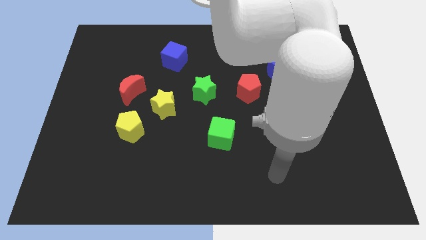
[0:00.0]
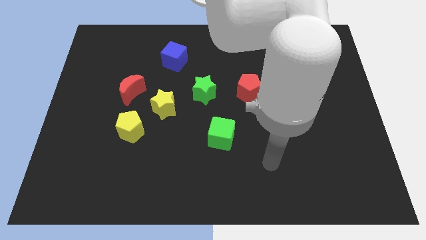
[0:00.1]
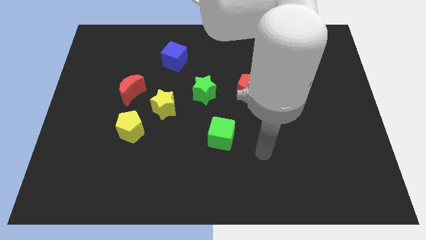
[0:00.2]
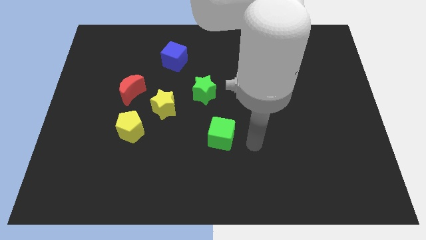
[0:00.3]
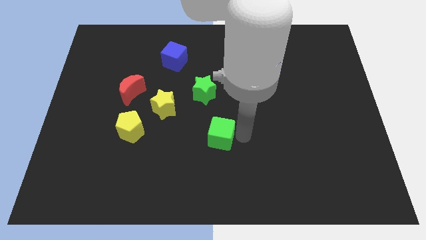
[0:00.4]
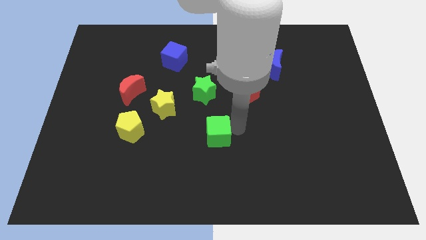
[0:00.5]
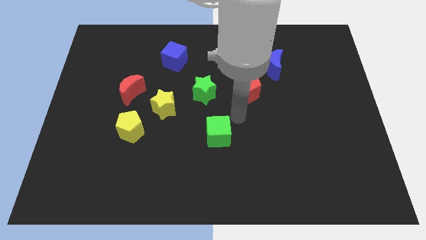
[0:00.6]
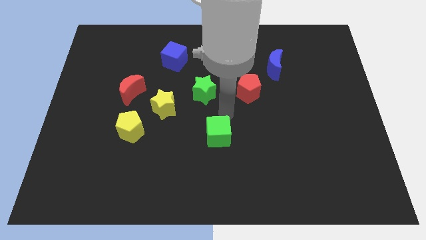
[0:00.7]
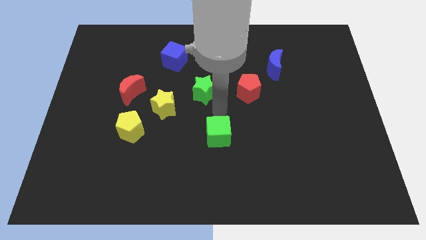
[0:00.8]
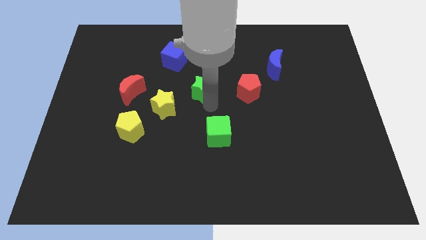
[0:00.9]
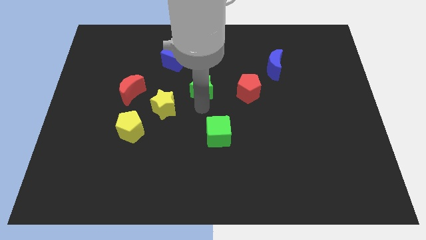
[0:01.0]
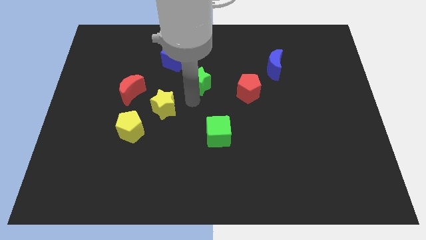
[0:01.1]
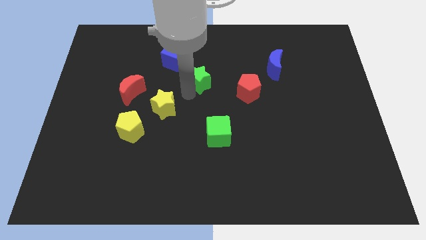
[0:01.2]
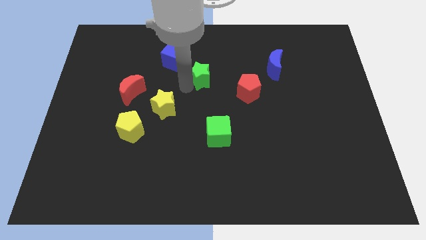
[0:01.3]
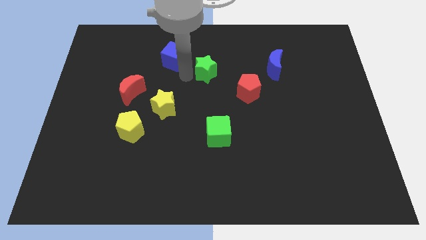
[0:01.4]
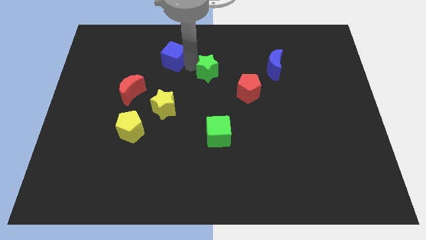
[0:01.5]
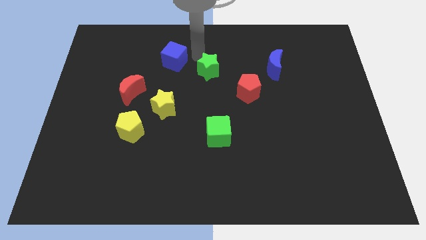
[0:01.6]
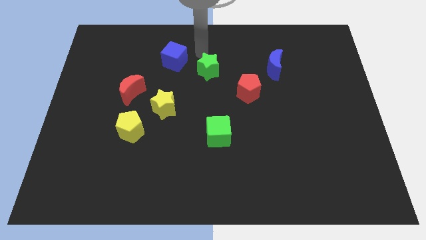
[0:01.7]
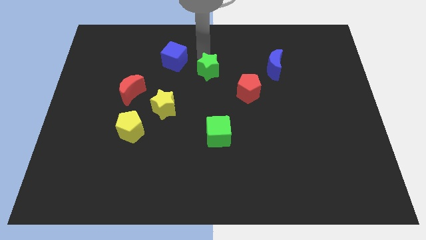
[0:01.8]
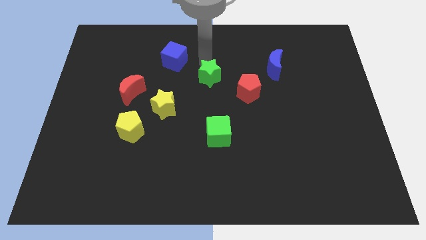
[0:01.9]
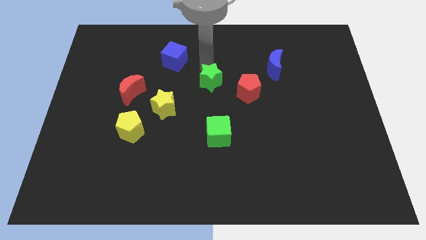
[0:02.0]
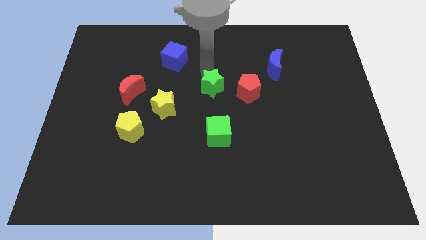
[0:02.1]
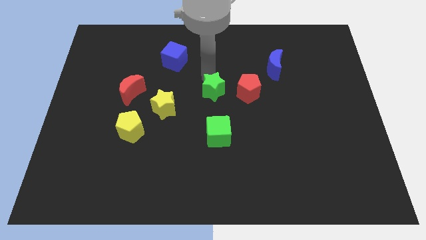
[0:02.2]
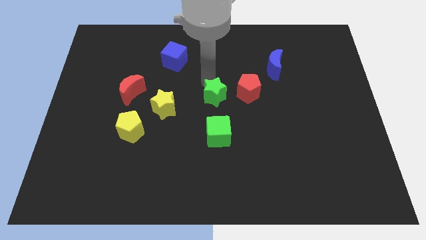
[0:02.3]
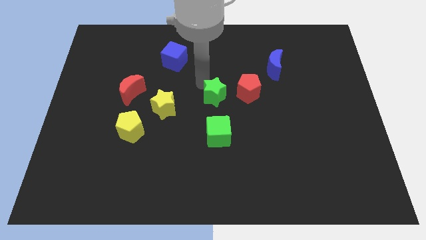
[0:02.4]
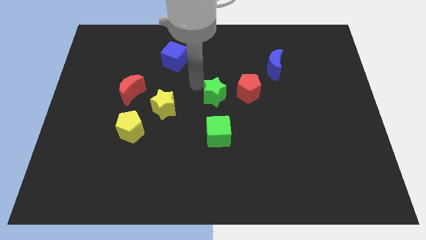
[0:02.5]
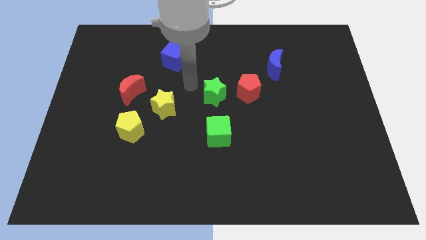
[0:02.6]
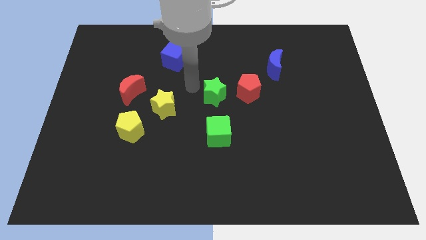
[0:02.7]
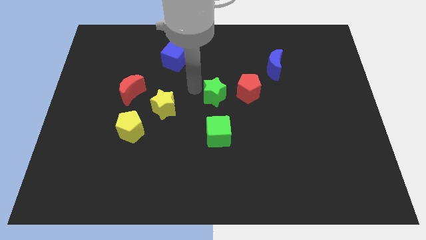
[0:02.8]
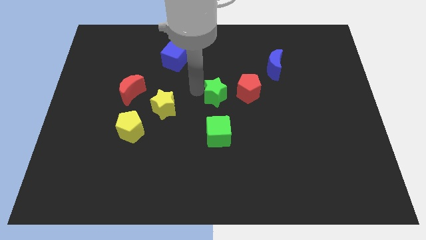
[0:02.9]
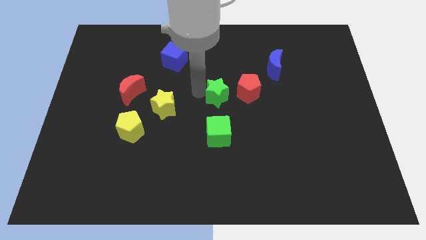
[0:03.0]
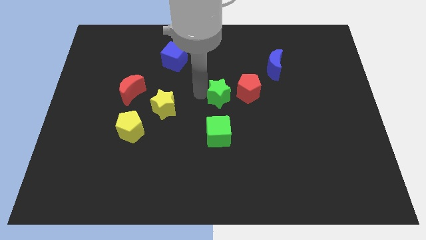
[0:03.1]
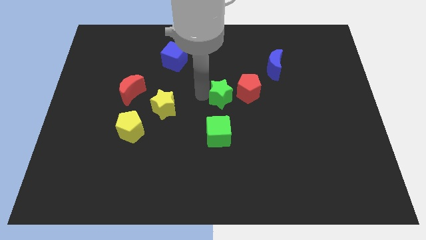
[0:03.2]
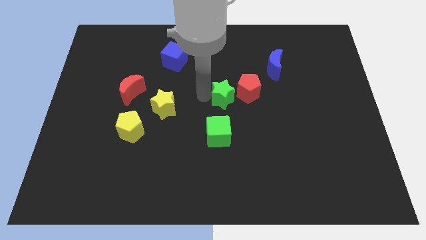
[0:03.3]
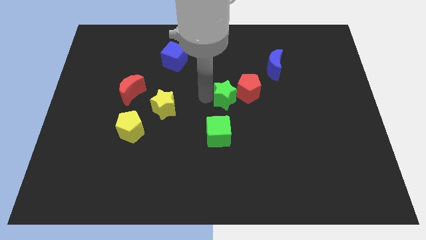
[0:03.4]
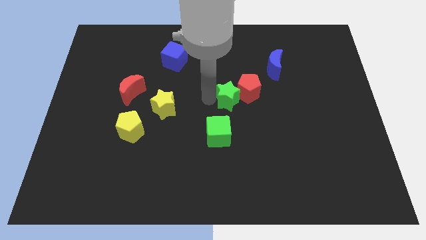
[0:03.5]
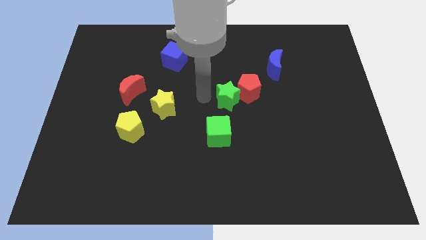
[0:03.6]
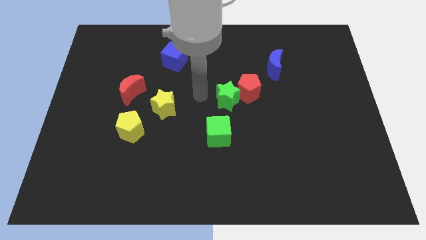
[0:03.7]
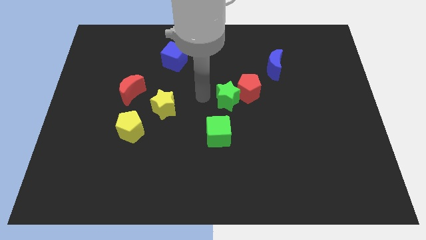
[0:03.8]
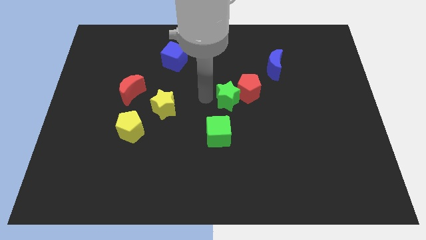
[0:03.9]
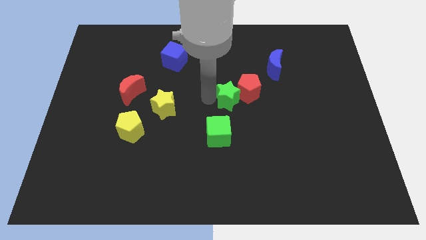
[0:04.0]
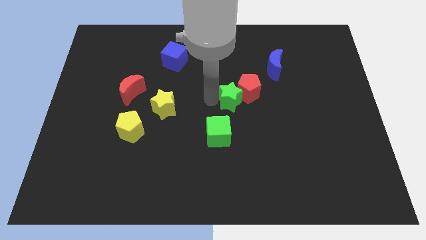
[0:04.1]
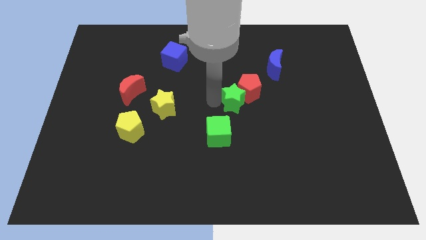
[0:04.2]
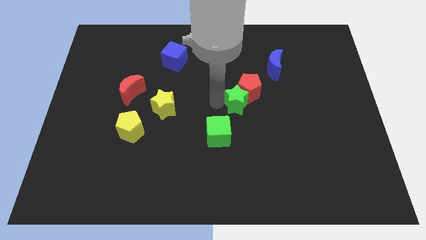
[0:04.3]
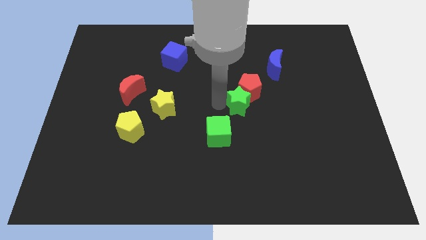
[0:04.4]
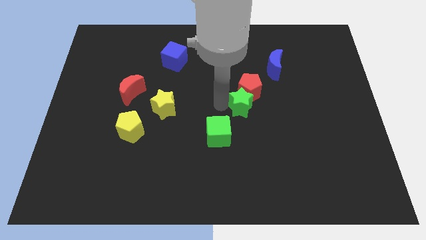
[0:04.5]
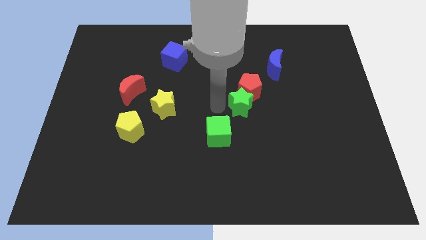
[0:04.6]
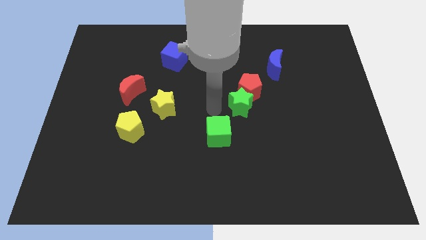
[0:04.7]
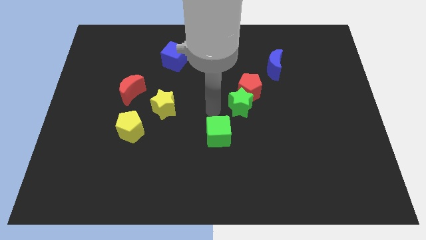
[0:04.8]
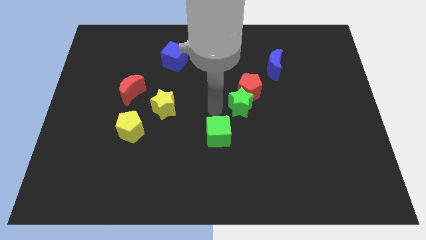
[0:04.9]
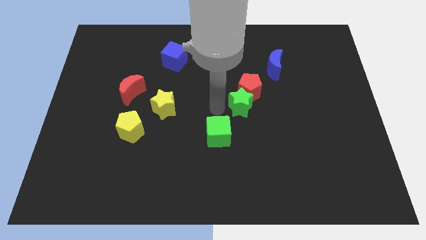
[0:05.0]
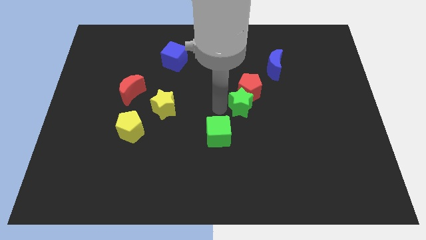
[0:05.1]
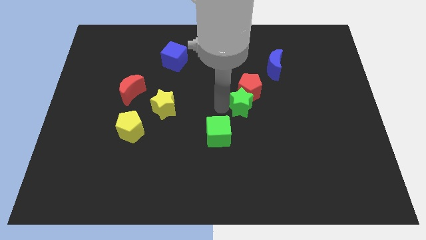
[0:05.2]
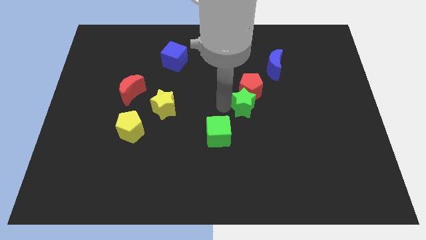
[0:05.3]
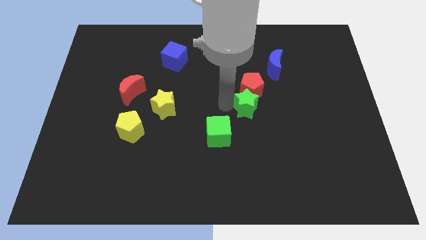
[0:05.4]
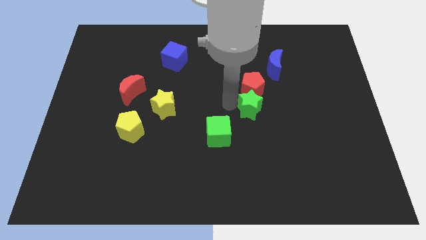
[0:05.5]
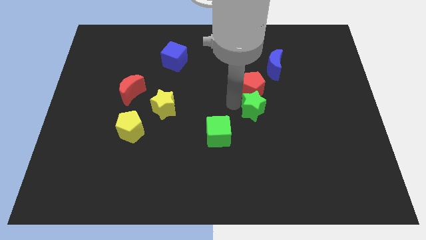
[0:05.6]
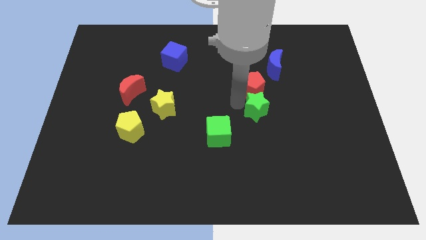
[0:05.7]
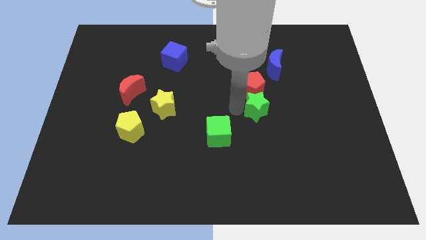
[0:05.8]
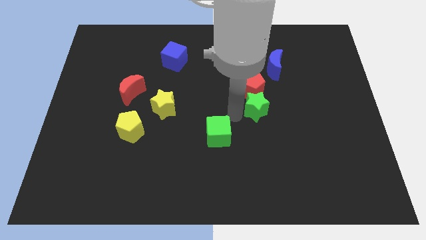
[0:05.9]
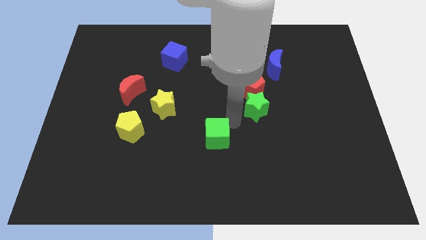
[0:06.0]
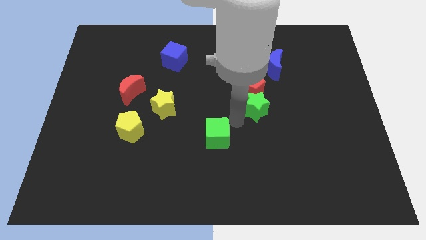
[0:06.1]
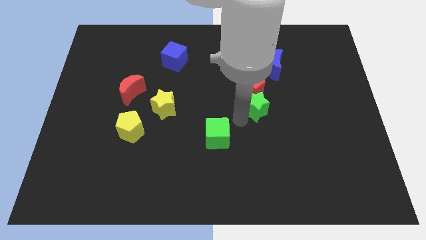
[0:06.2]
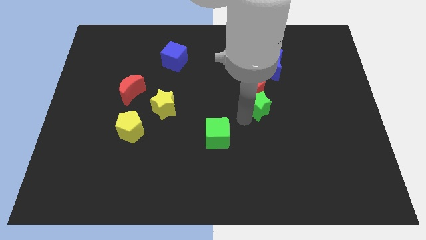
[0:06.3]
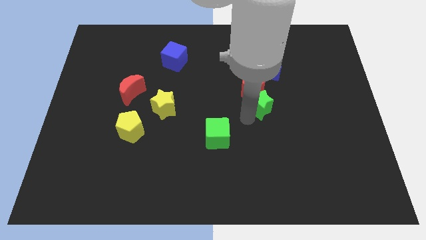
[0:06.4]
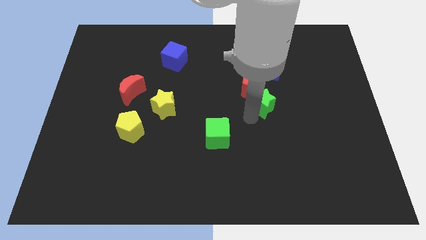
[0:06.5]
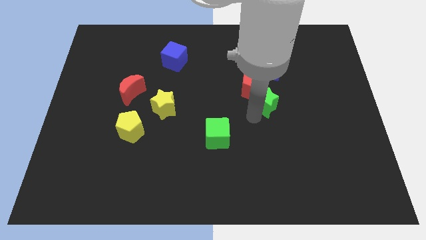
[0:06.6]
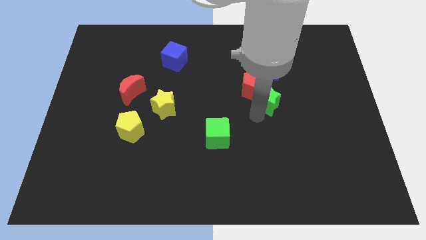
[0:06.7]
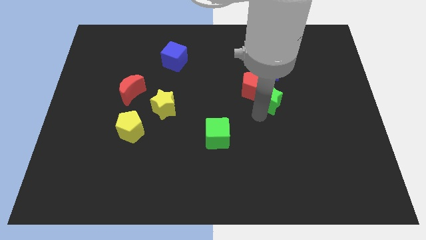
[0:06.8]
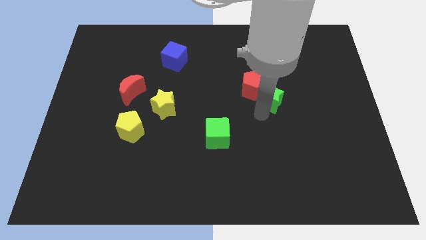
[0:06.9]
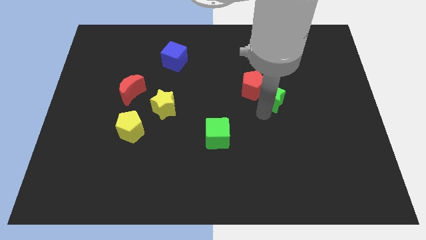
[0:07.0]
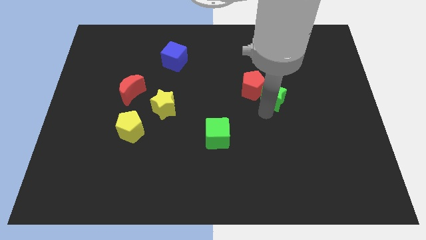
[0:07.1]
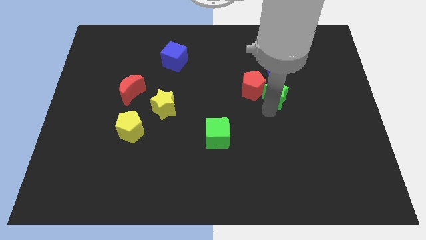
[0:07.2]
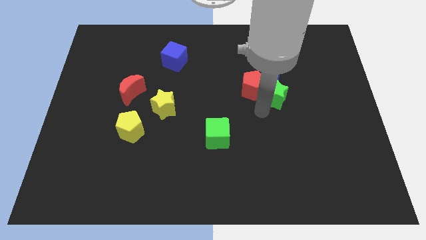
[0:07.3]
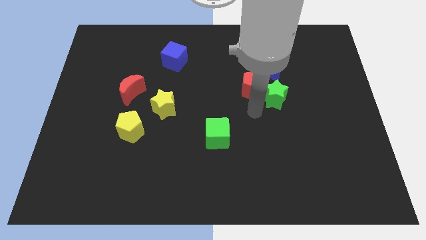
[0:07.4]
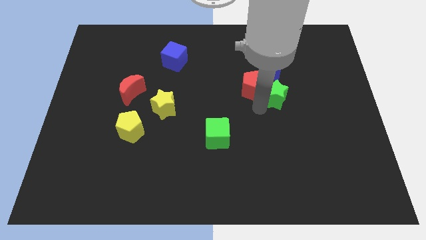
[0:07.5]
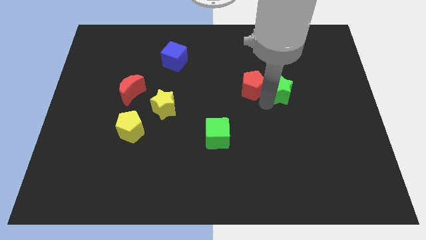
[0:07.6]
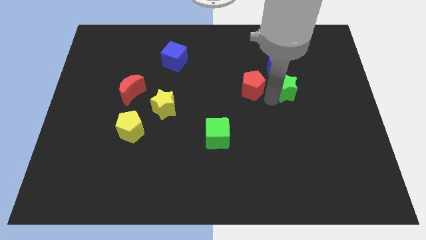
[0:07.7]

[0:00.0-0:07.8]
push the green star diagonally down and to the right of the blue moon
